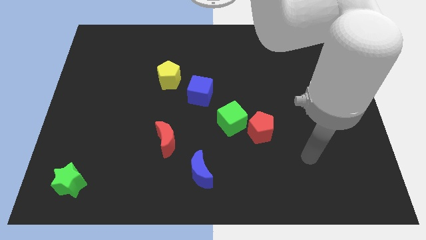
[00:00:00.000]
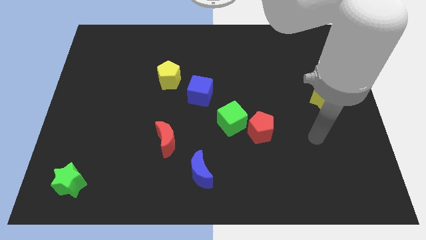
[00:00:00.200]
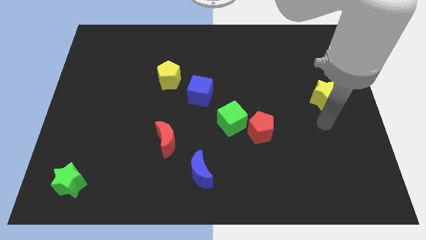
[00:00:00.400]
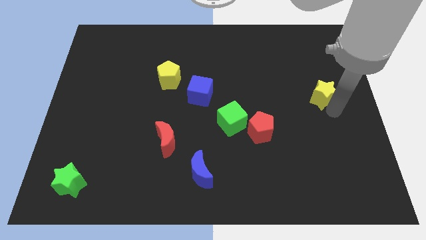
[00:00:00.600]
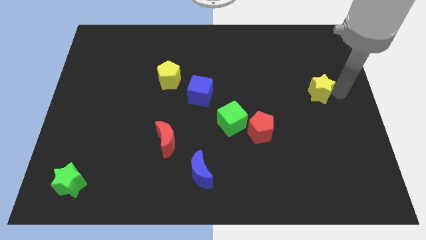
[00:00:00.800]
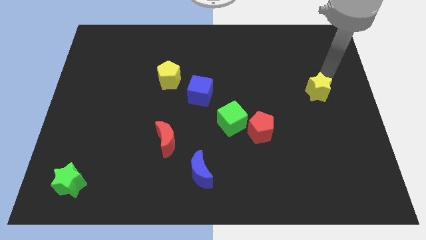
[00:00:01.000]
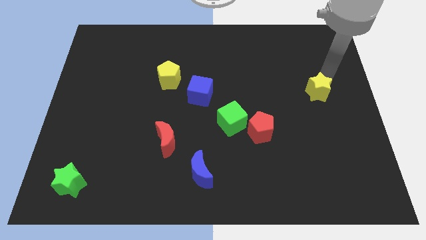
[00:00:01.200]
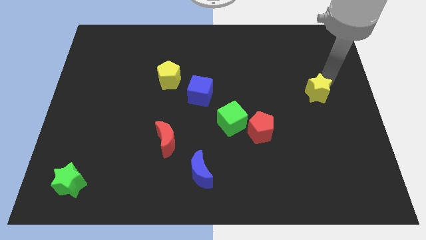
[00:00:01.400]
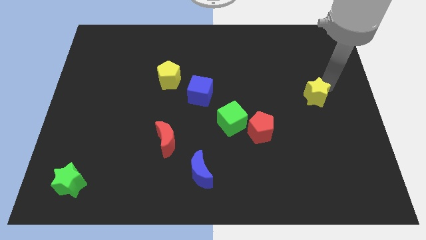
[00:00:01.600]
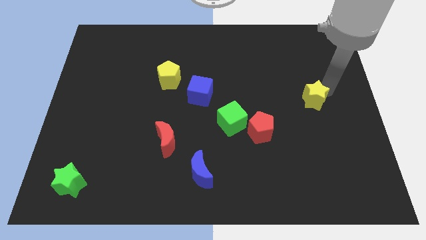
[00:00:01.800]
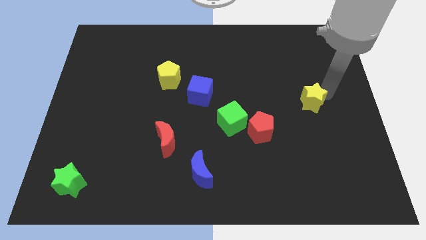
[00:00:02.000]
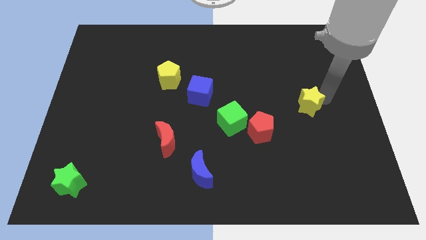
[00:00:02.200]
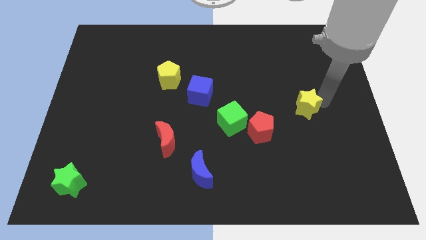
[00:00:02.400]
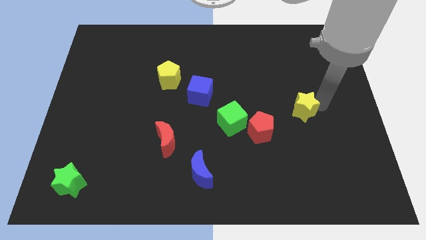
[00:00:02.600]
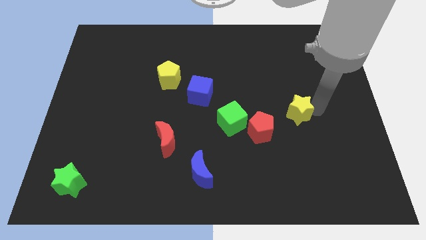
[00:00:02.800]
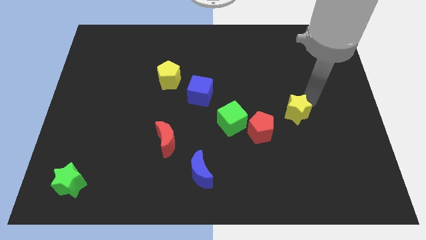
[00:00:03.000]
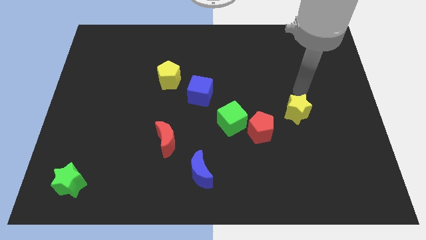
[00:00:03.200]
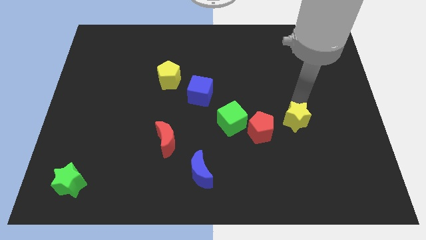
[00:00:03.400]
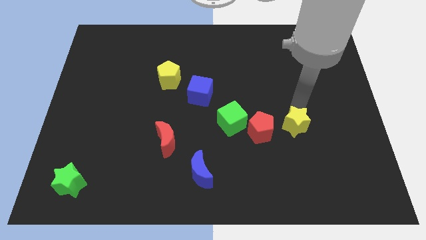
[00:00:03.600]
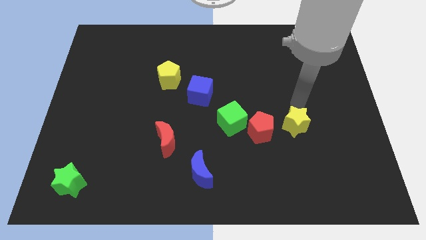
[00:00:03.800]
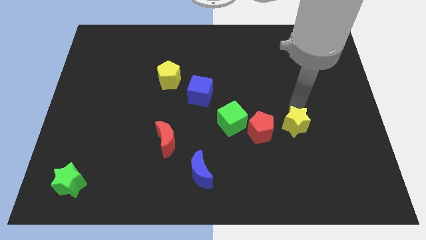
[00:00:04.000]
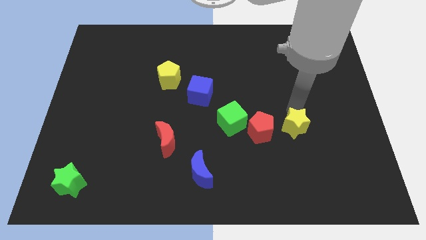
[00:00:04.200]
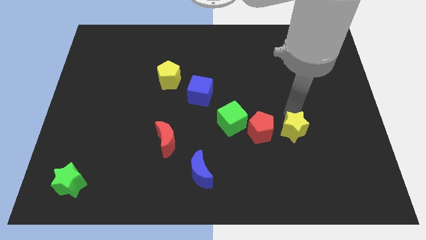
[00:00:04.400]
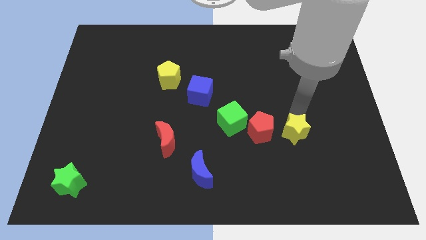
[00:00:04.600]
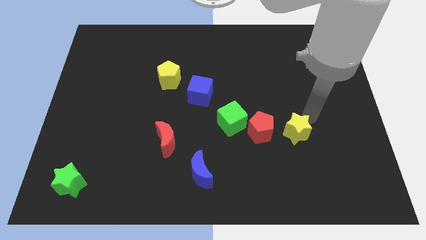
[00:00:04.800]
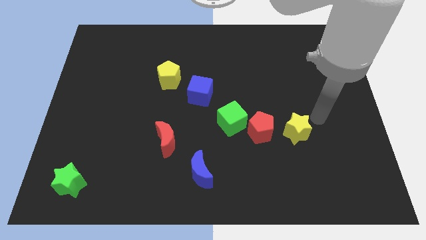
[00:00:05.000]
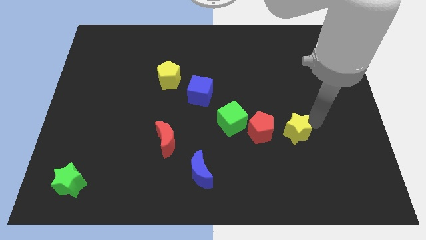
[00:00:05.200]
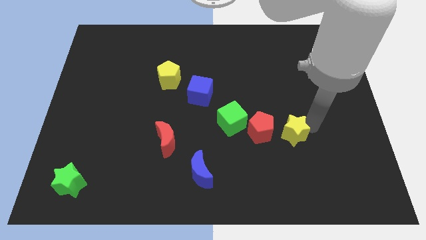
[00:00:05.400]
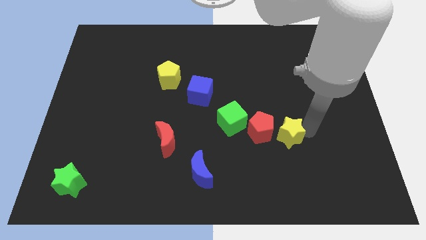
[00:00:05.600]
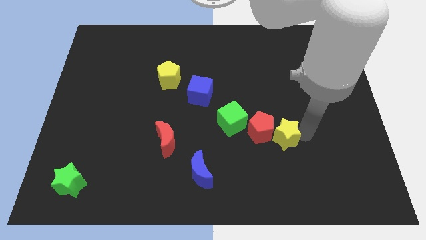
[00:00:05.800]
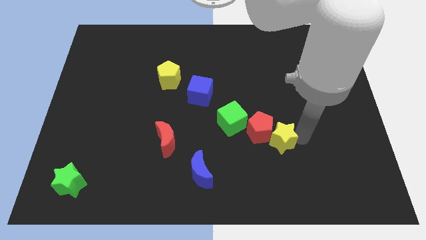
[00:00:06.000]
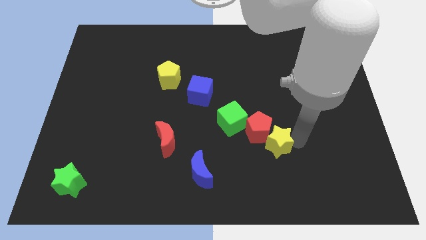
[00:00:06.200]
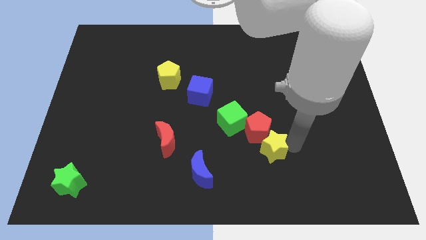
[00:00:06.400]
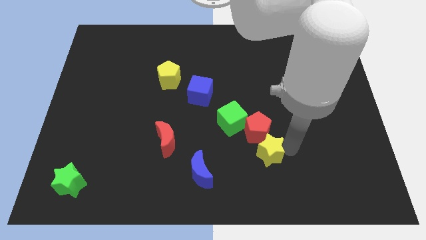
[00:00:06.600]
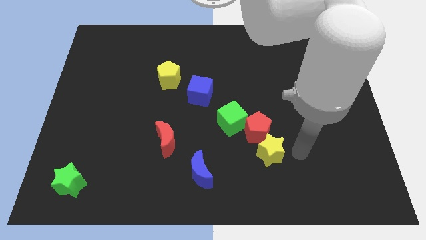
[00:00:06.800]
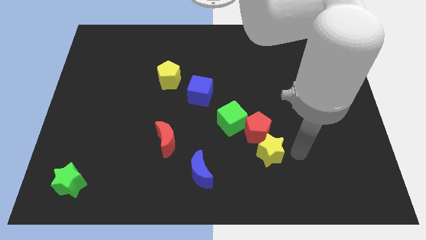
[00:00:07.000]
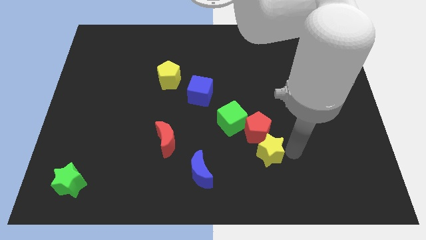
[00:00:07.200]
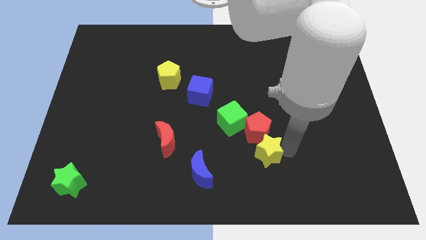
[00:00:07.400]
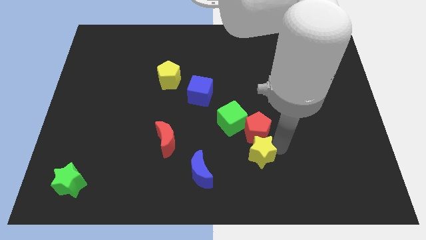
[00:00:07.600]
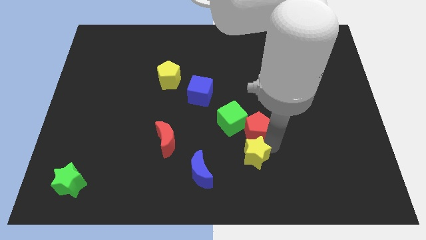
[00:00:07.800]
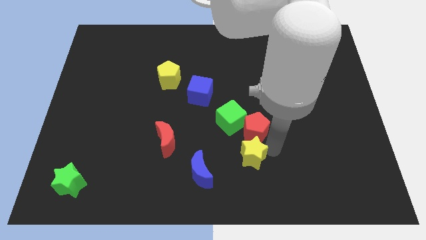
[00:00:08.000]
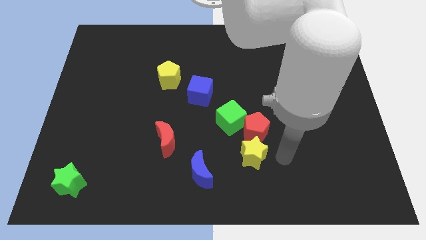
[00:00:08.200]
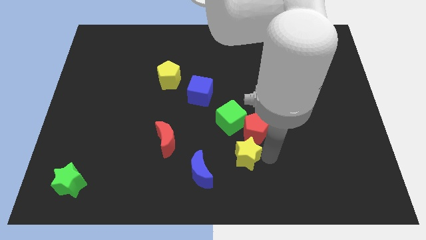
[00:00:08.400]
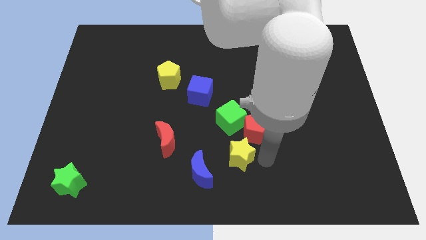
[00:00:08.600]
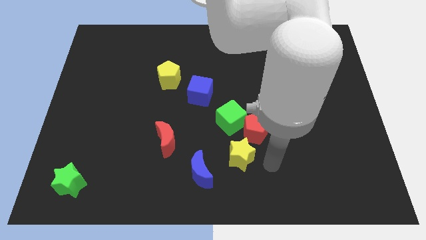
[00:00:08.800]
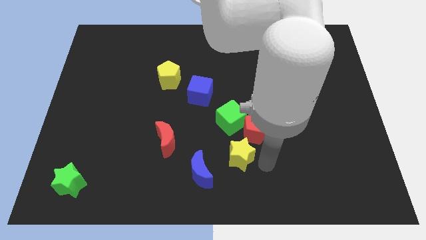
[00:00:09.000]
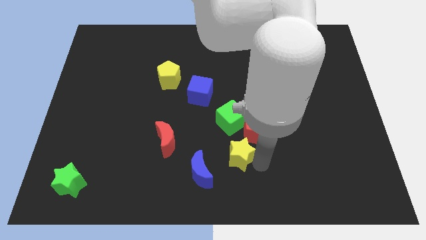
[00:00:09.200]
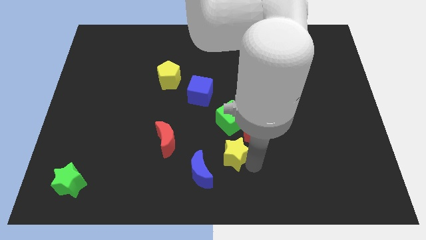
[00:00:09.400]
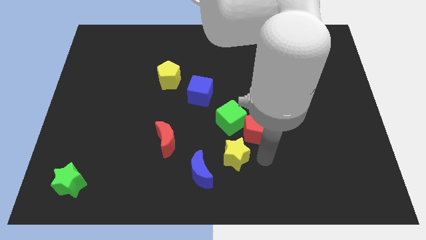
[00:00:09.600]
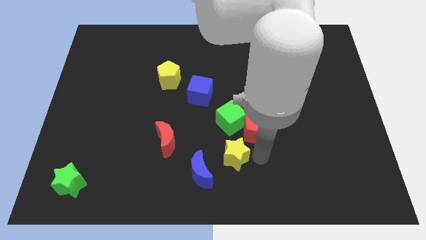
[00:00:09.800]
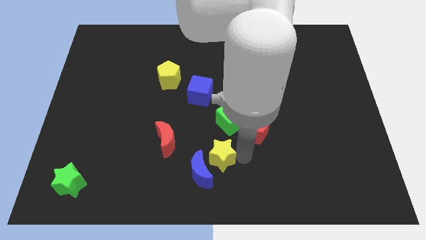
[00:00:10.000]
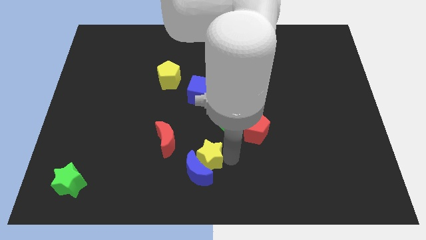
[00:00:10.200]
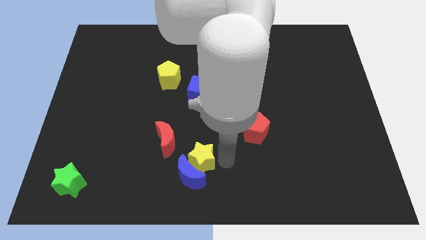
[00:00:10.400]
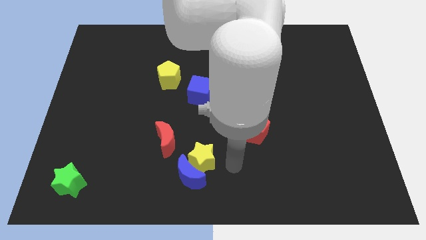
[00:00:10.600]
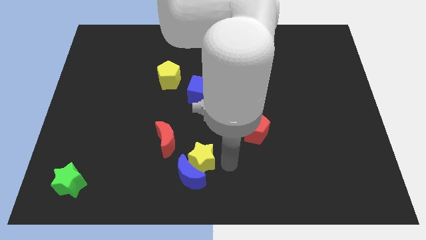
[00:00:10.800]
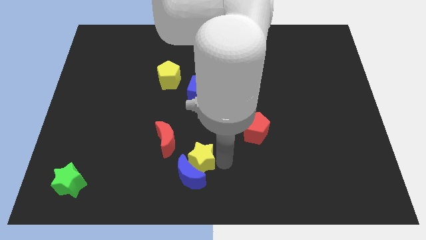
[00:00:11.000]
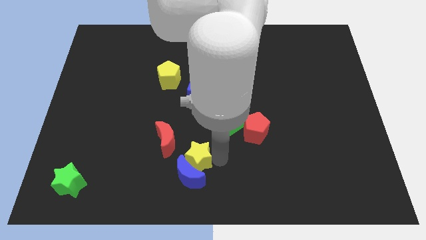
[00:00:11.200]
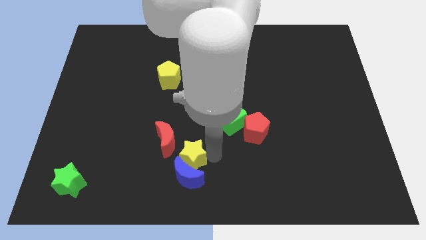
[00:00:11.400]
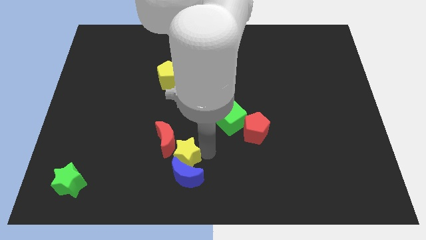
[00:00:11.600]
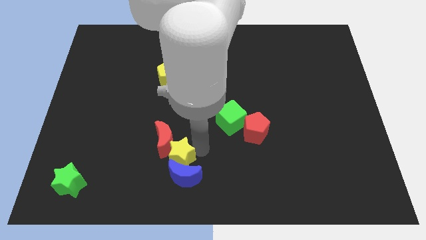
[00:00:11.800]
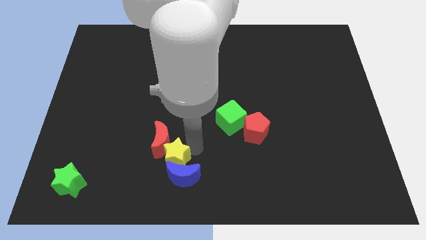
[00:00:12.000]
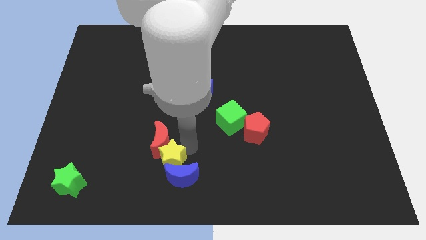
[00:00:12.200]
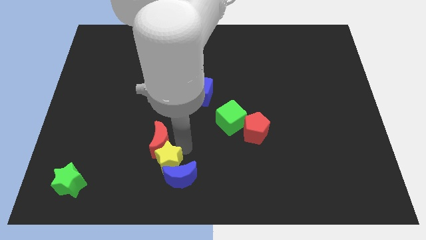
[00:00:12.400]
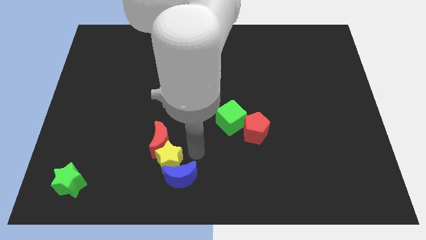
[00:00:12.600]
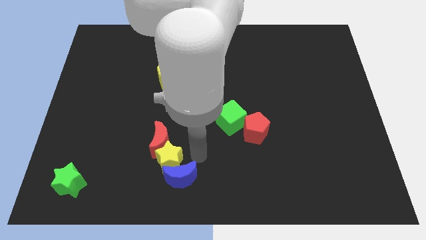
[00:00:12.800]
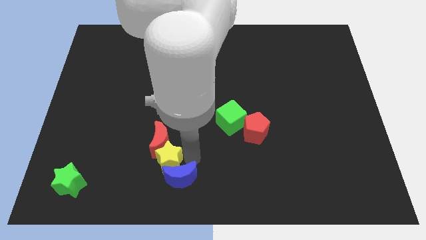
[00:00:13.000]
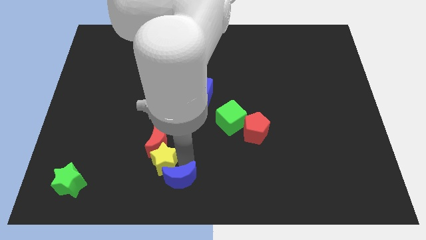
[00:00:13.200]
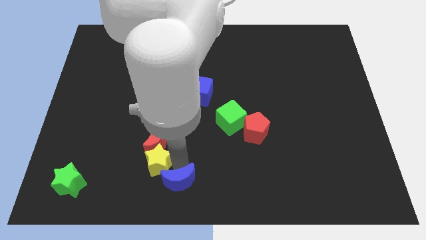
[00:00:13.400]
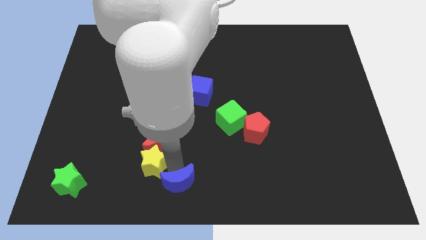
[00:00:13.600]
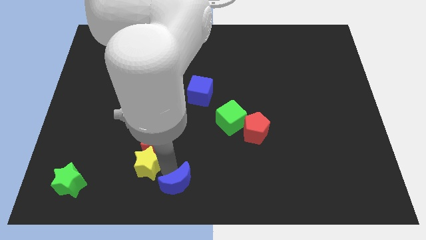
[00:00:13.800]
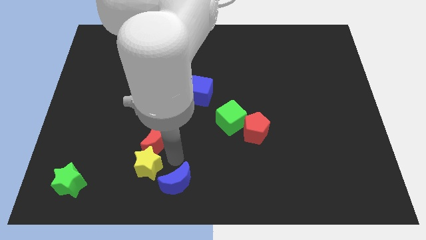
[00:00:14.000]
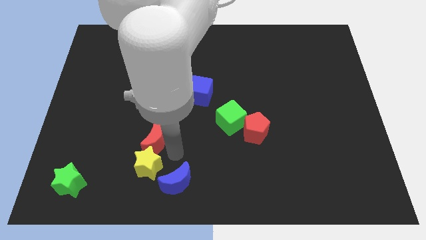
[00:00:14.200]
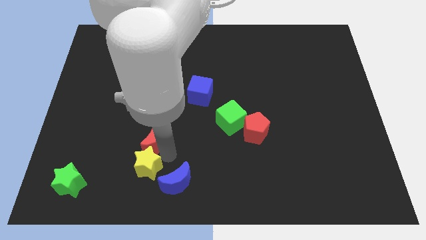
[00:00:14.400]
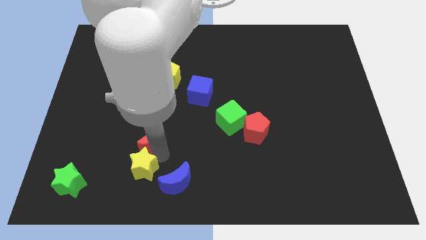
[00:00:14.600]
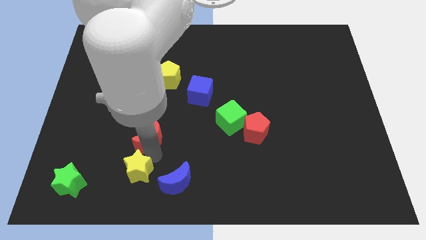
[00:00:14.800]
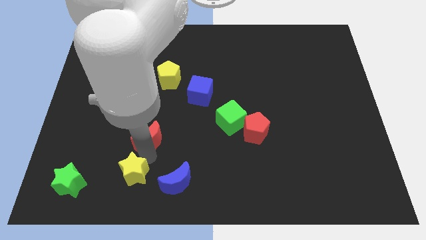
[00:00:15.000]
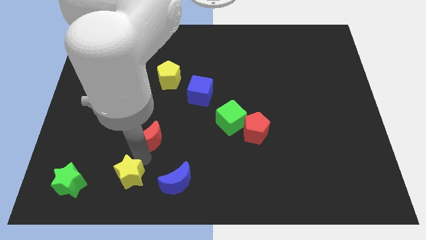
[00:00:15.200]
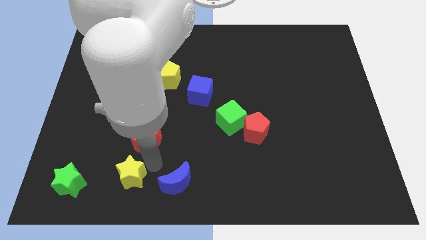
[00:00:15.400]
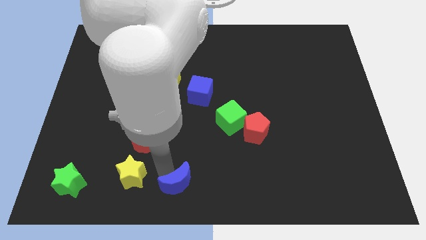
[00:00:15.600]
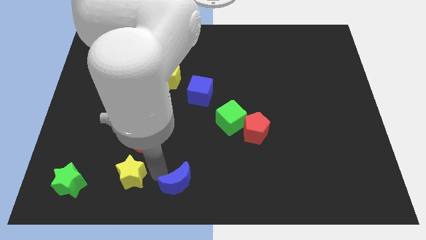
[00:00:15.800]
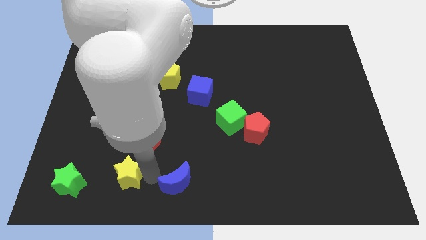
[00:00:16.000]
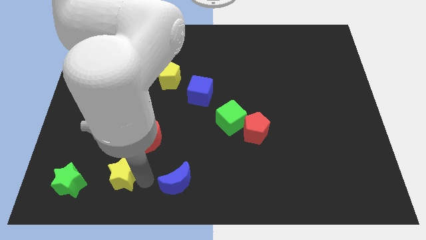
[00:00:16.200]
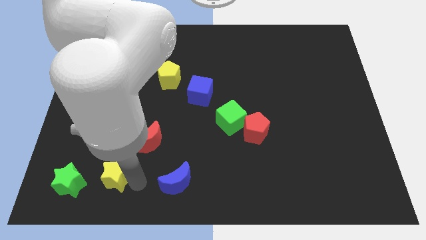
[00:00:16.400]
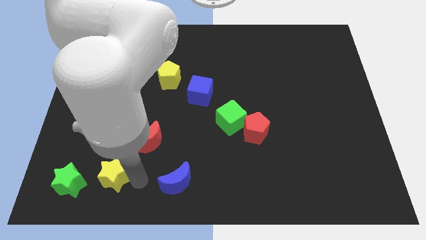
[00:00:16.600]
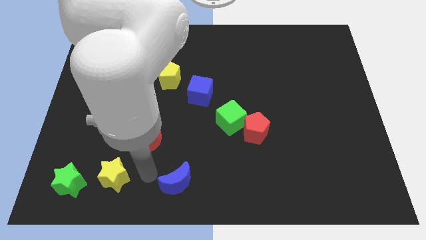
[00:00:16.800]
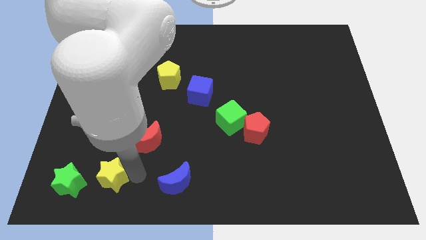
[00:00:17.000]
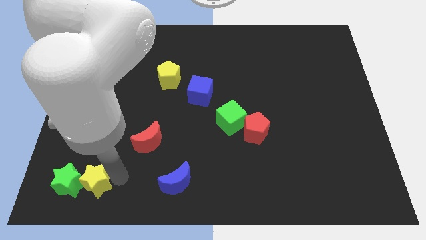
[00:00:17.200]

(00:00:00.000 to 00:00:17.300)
slide the yellow star towards the green star
